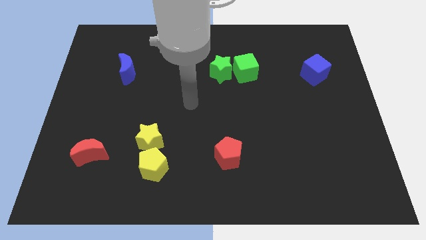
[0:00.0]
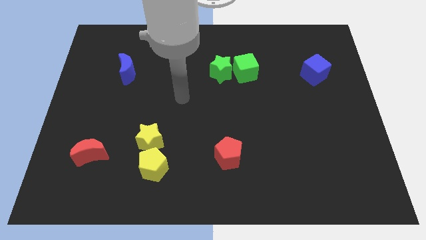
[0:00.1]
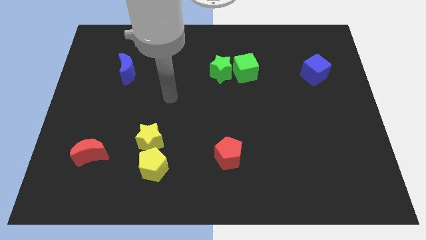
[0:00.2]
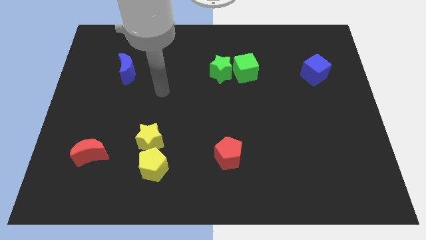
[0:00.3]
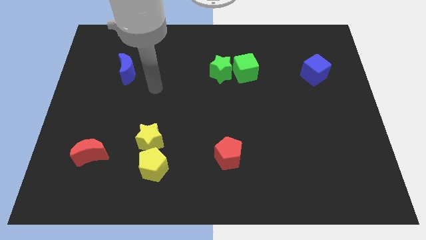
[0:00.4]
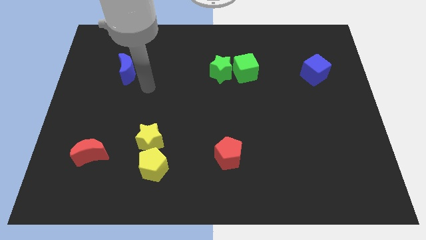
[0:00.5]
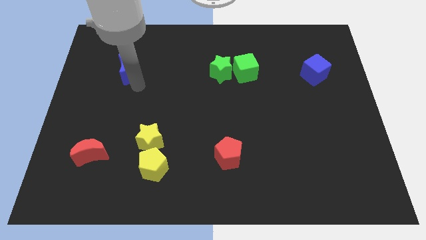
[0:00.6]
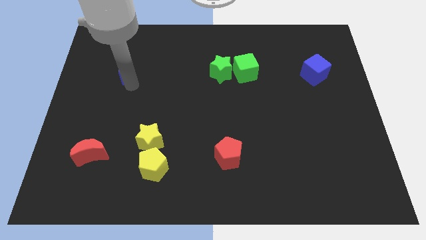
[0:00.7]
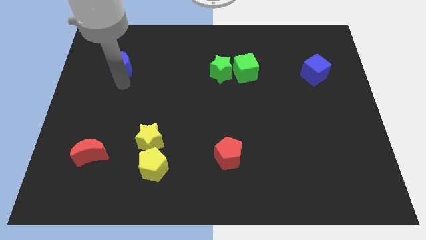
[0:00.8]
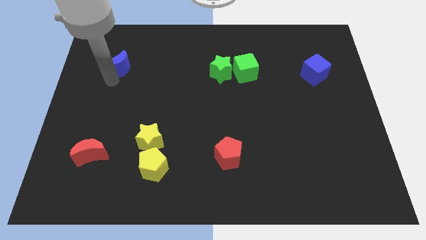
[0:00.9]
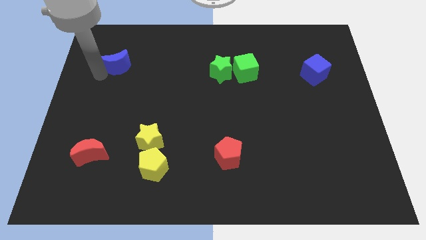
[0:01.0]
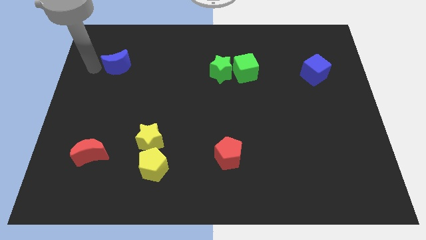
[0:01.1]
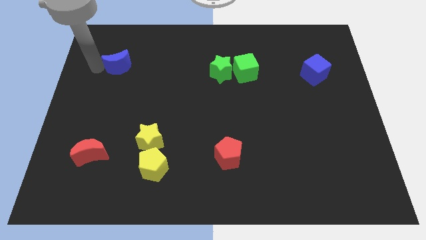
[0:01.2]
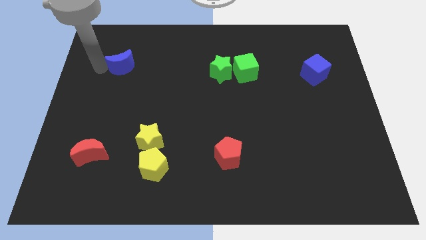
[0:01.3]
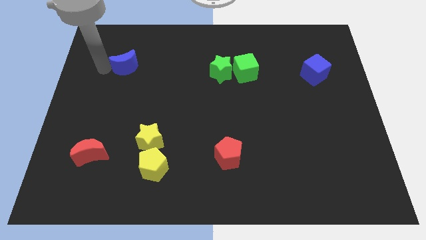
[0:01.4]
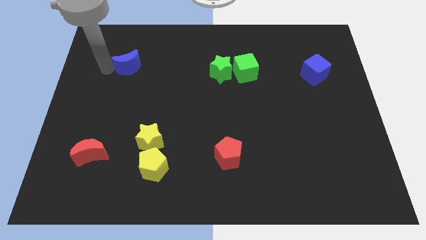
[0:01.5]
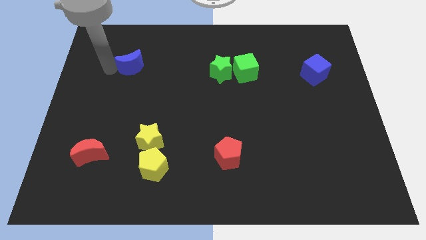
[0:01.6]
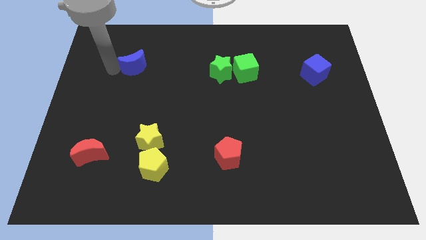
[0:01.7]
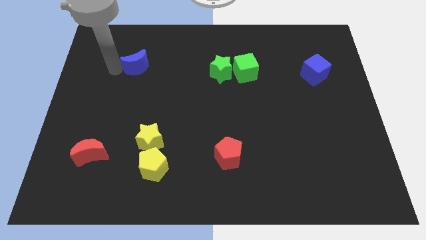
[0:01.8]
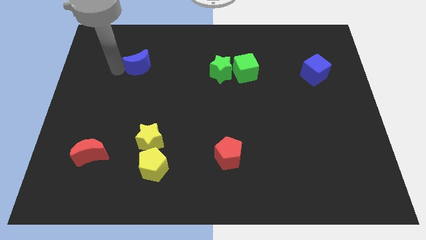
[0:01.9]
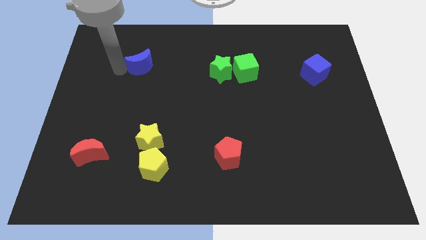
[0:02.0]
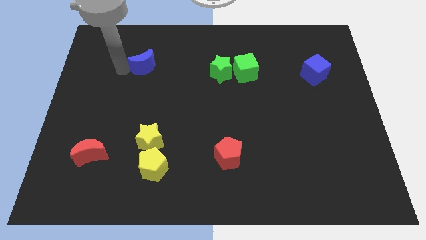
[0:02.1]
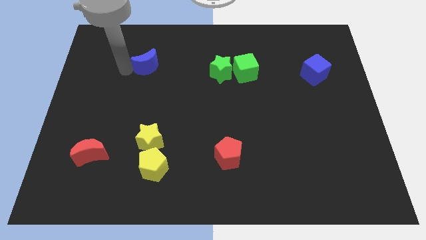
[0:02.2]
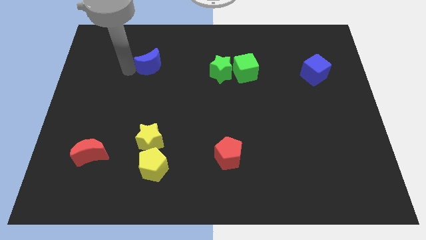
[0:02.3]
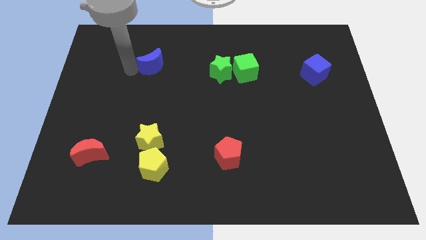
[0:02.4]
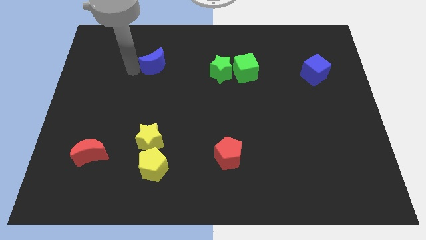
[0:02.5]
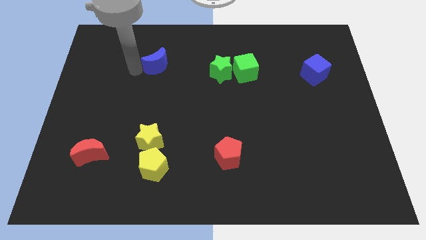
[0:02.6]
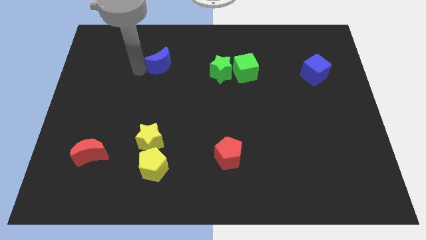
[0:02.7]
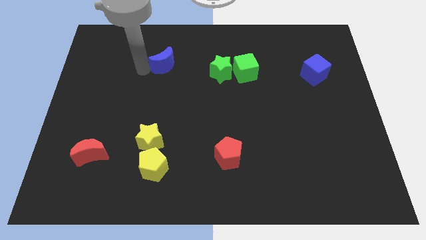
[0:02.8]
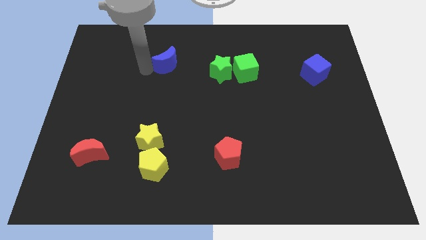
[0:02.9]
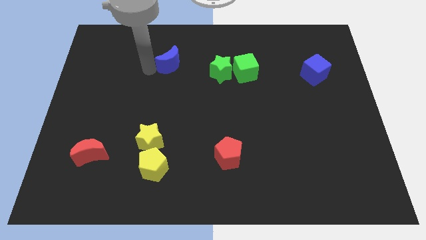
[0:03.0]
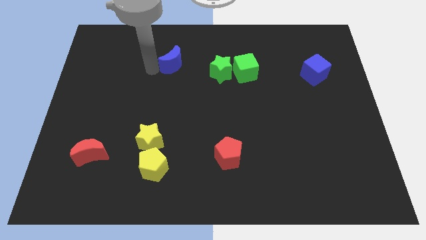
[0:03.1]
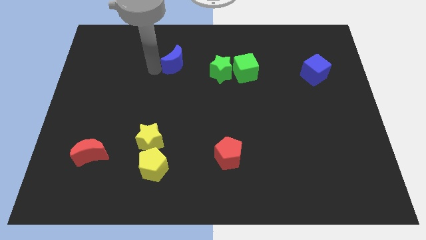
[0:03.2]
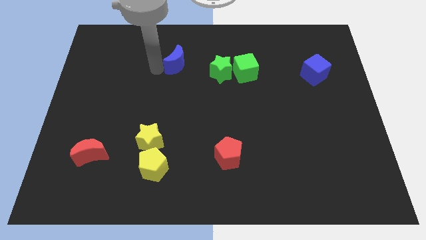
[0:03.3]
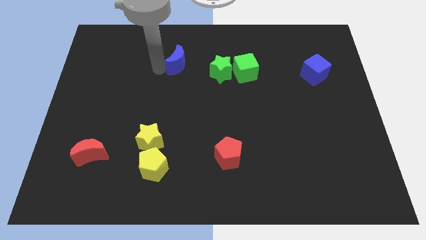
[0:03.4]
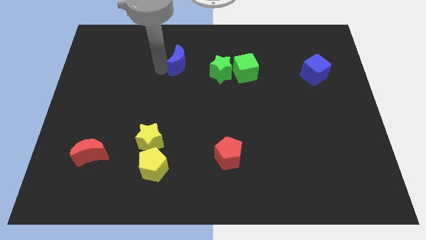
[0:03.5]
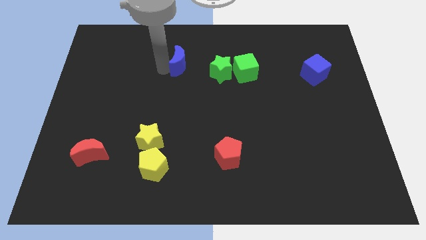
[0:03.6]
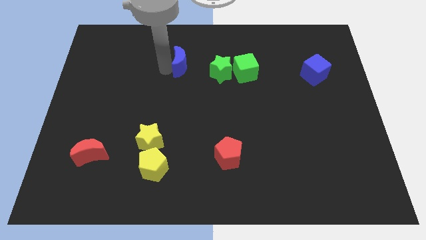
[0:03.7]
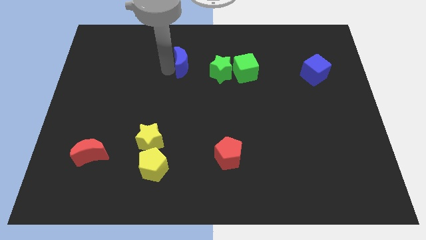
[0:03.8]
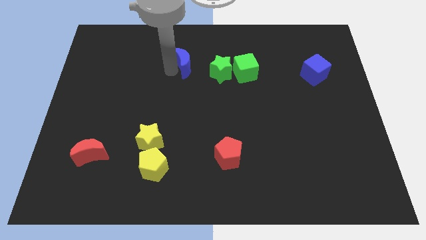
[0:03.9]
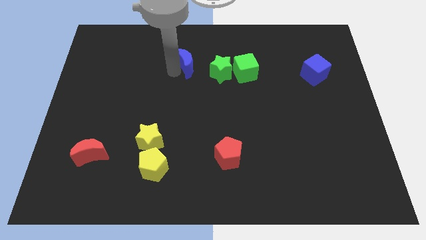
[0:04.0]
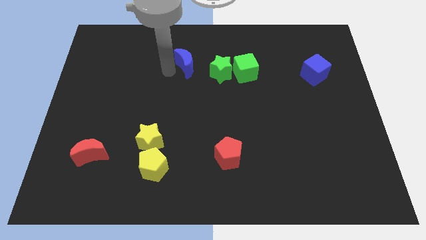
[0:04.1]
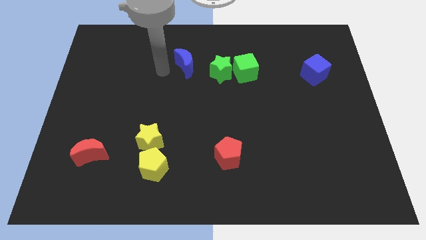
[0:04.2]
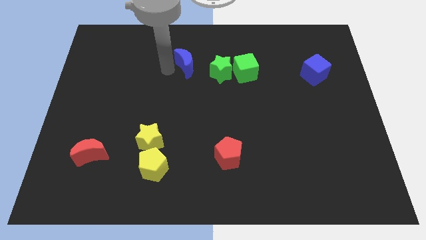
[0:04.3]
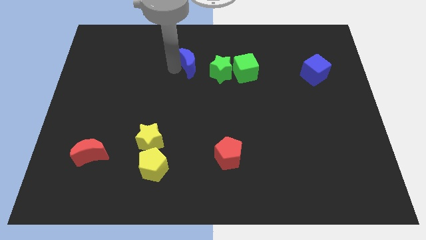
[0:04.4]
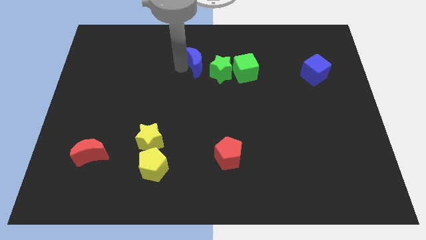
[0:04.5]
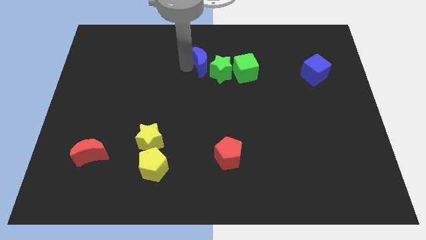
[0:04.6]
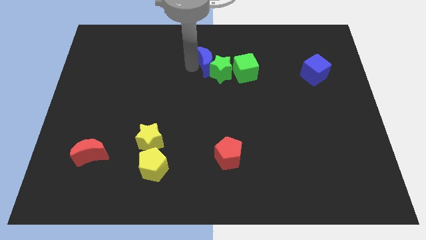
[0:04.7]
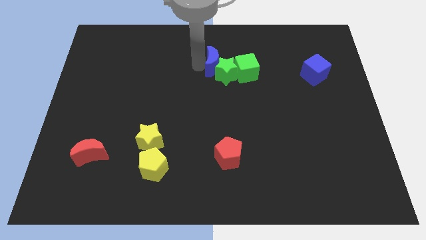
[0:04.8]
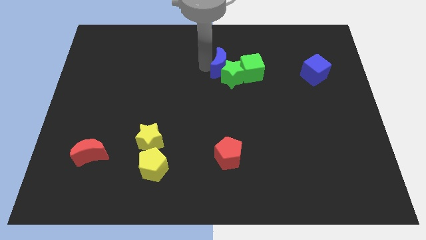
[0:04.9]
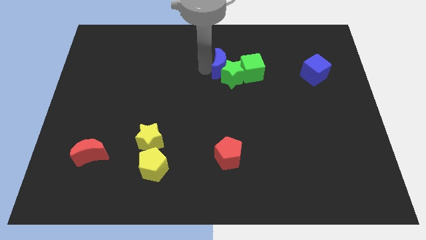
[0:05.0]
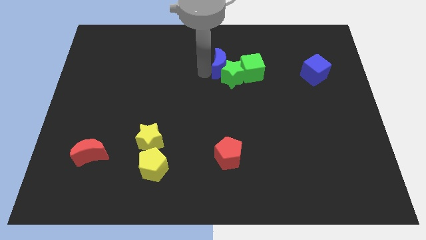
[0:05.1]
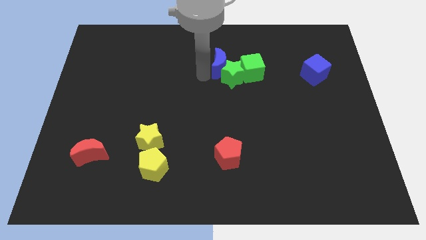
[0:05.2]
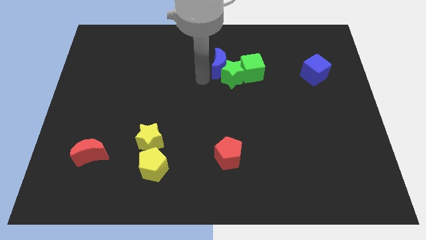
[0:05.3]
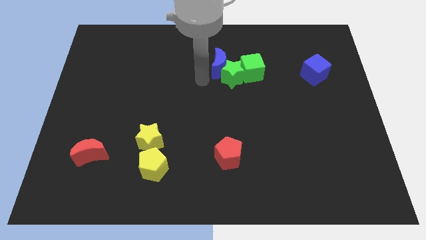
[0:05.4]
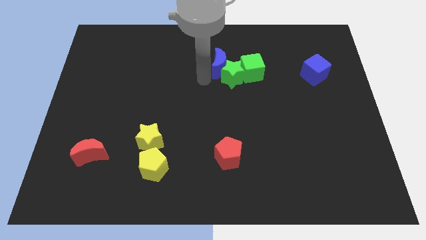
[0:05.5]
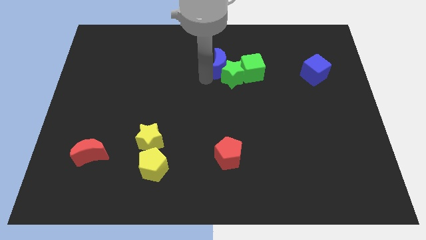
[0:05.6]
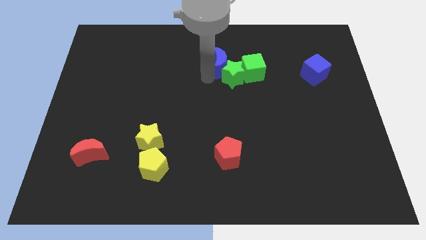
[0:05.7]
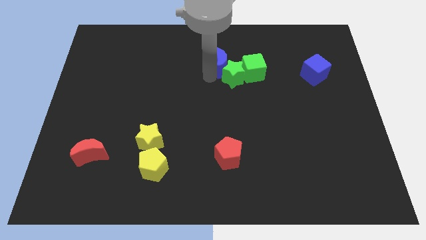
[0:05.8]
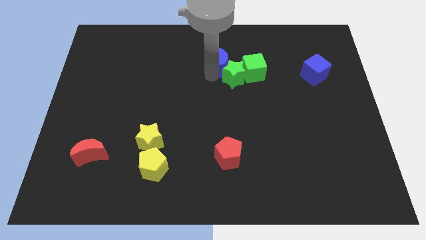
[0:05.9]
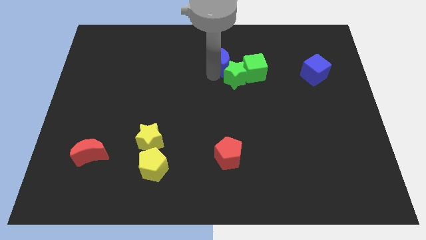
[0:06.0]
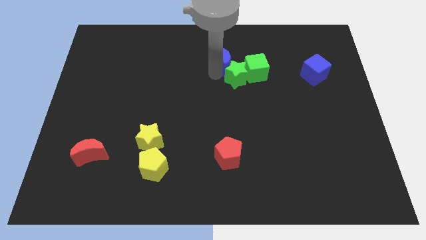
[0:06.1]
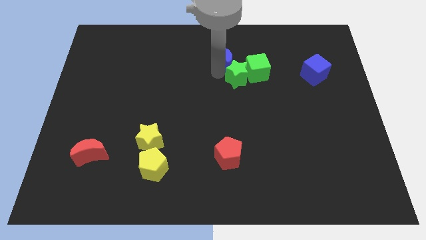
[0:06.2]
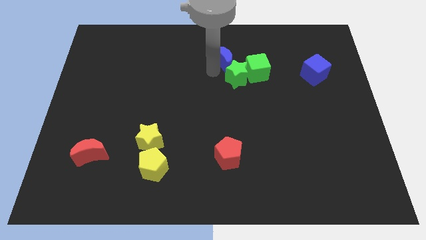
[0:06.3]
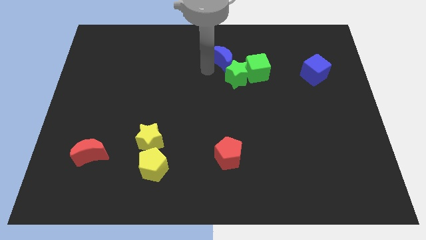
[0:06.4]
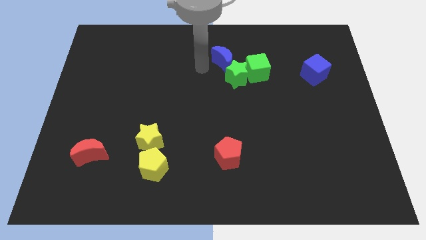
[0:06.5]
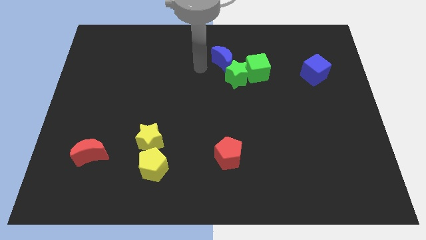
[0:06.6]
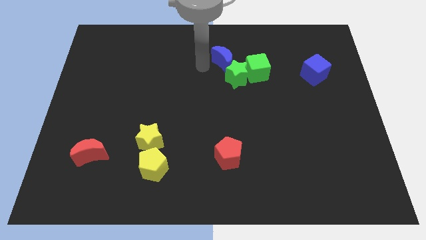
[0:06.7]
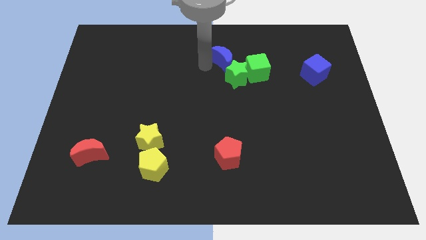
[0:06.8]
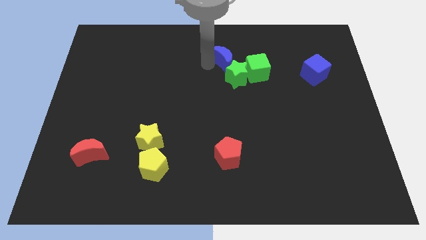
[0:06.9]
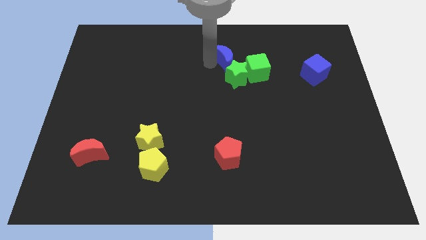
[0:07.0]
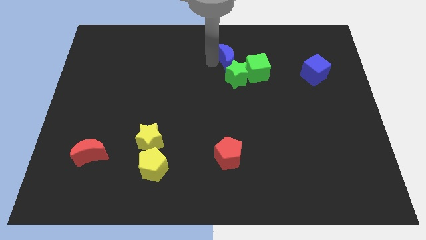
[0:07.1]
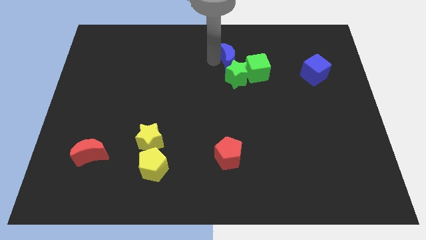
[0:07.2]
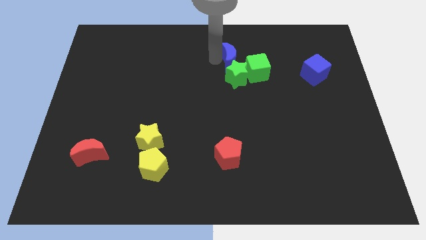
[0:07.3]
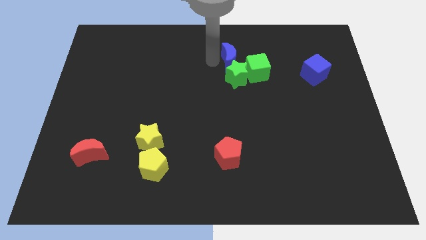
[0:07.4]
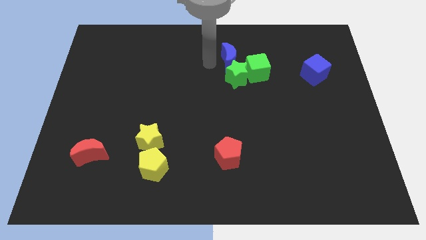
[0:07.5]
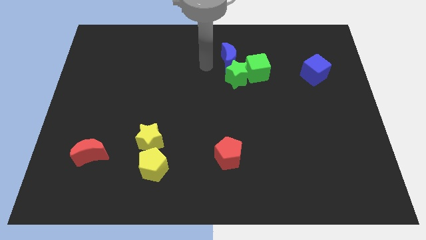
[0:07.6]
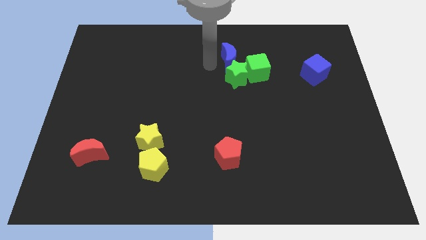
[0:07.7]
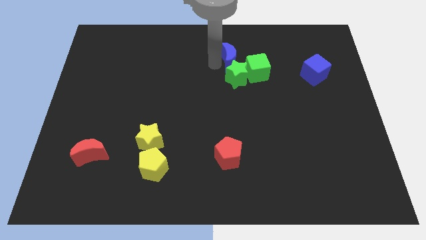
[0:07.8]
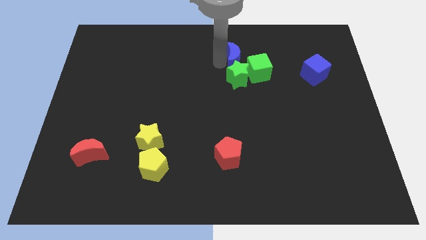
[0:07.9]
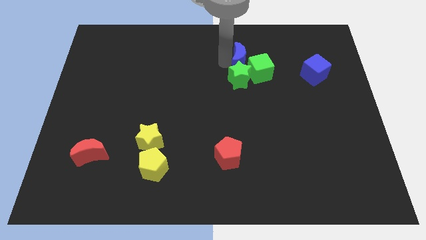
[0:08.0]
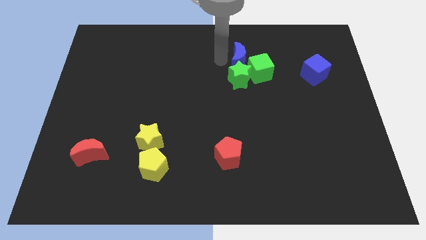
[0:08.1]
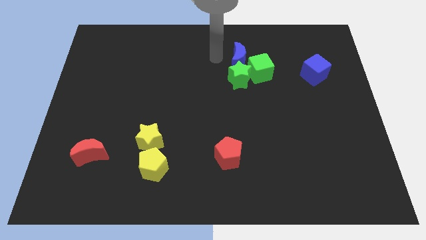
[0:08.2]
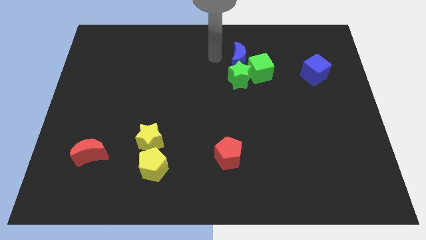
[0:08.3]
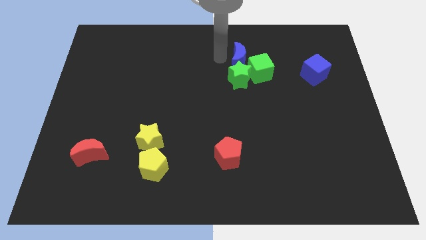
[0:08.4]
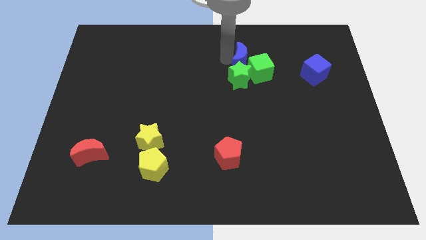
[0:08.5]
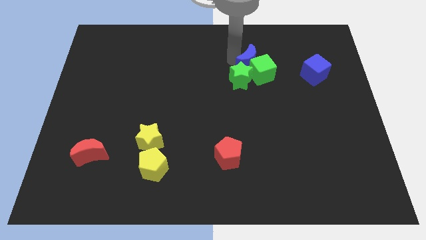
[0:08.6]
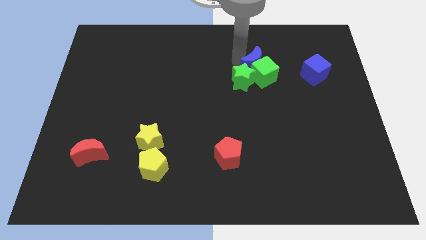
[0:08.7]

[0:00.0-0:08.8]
slide the blue moon just left of the blue cube
